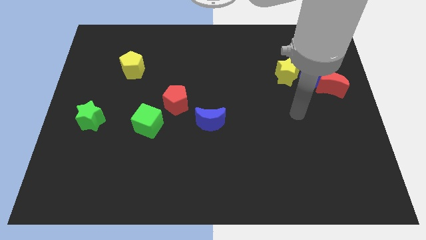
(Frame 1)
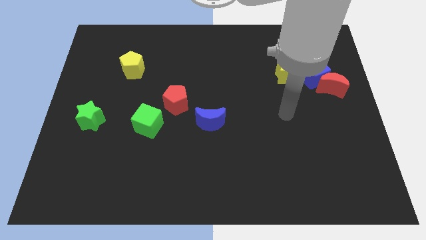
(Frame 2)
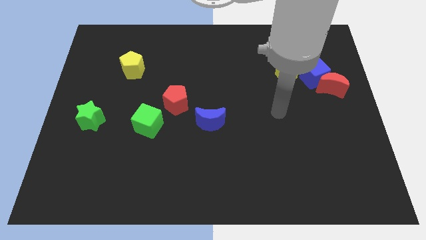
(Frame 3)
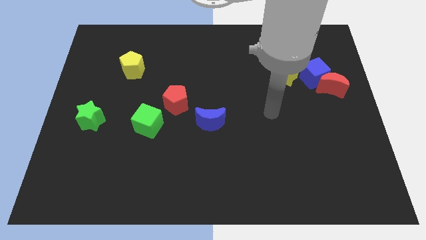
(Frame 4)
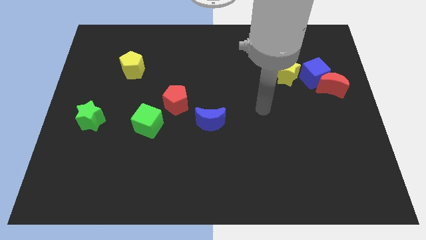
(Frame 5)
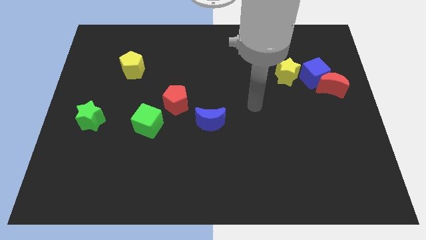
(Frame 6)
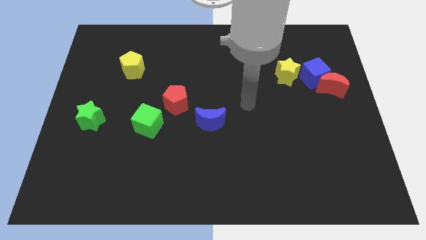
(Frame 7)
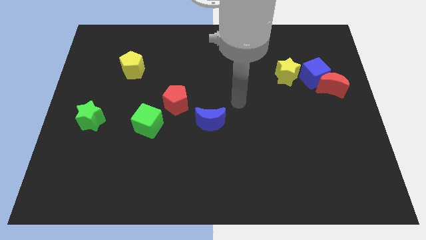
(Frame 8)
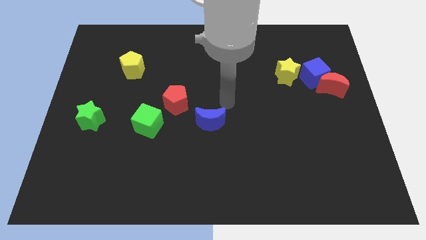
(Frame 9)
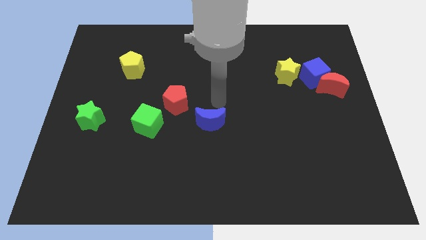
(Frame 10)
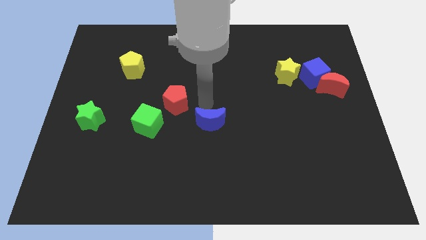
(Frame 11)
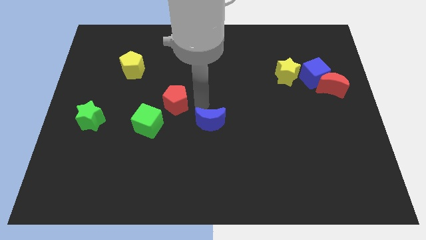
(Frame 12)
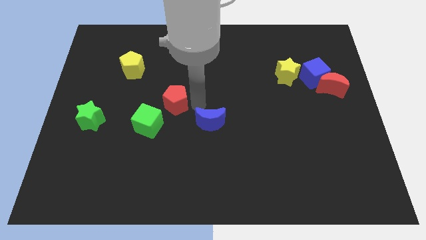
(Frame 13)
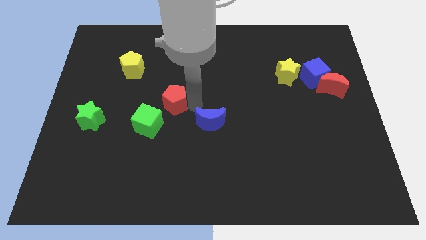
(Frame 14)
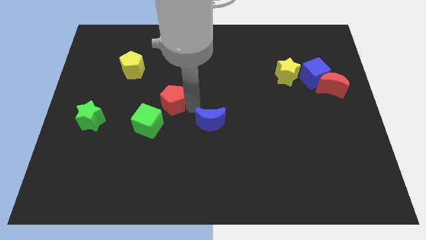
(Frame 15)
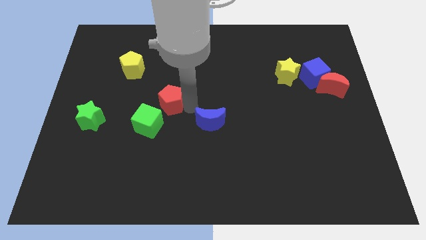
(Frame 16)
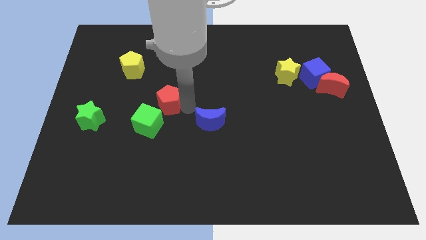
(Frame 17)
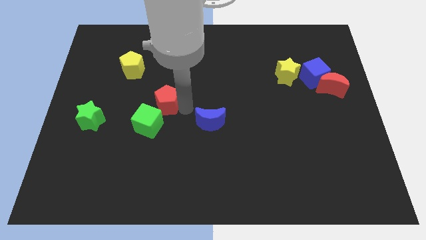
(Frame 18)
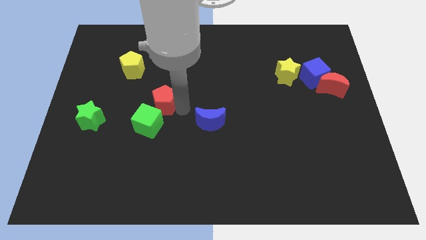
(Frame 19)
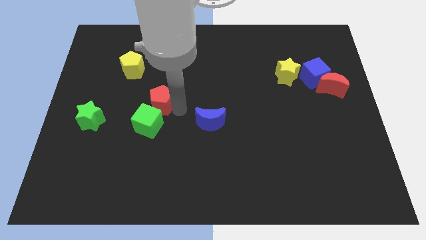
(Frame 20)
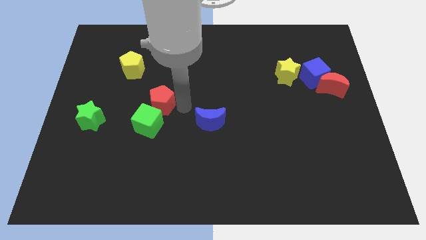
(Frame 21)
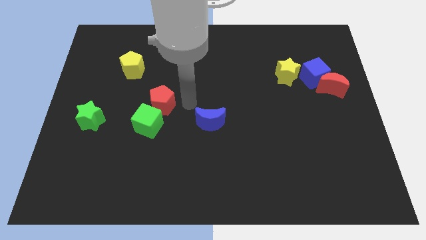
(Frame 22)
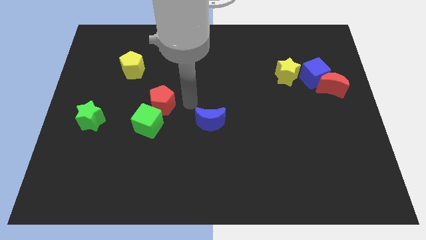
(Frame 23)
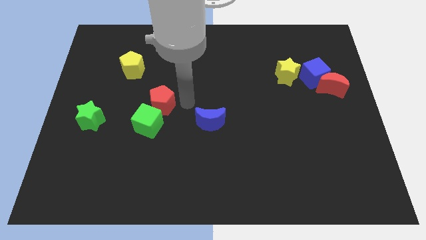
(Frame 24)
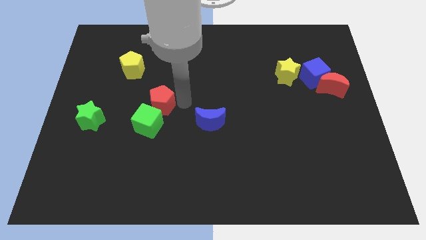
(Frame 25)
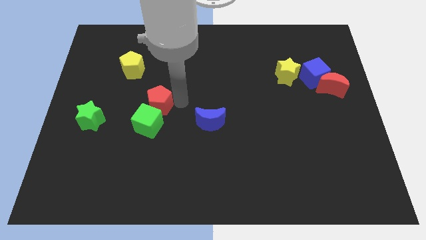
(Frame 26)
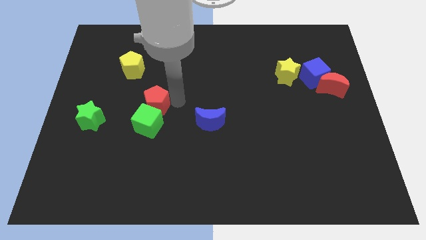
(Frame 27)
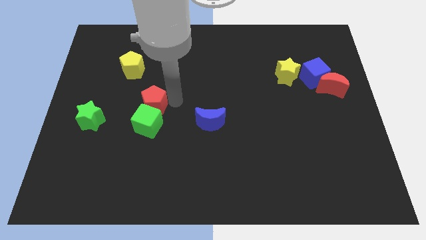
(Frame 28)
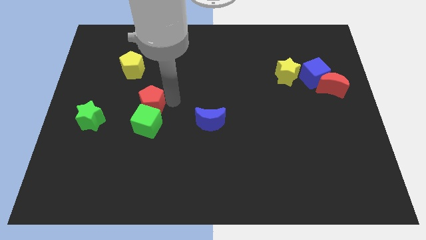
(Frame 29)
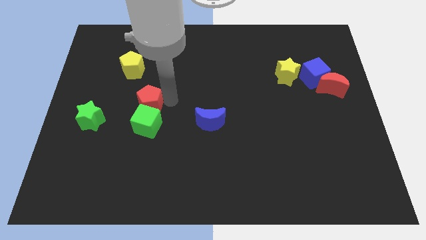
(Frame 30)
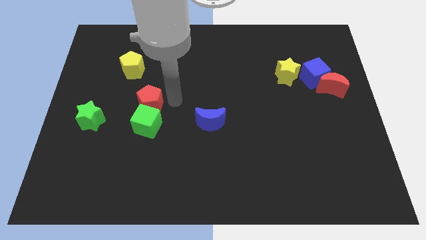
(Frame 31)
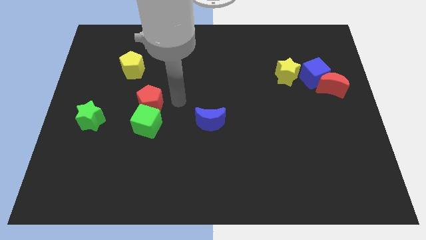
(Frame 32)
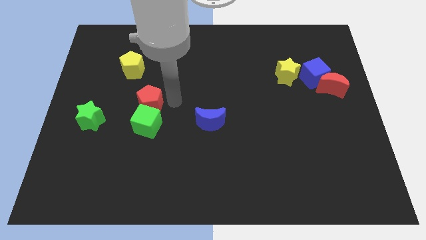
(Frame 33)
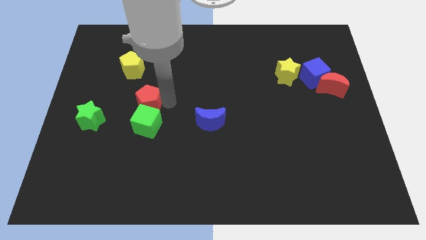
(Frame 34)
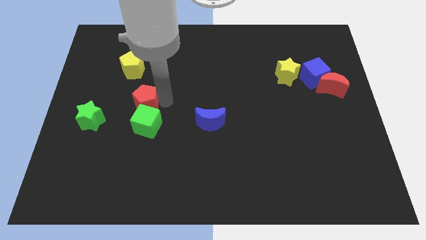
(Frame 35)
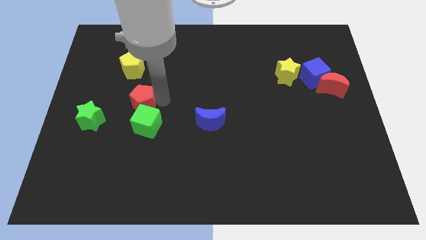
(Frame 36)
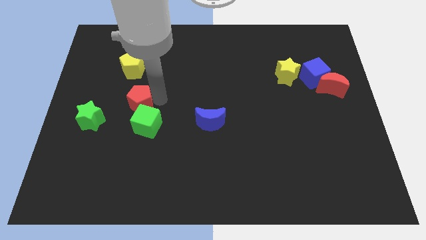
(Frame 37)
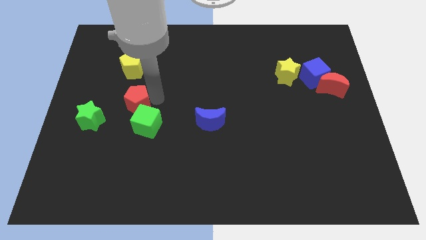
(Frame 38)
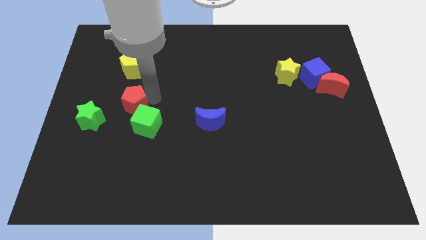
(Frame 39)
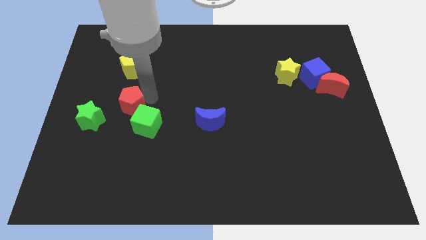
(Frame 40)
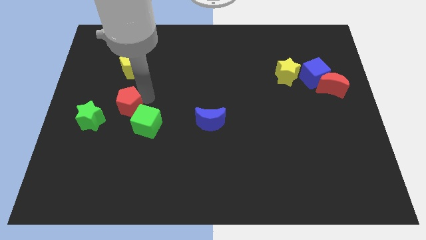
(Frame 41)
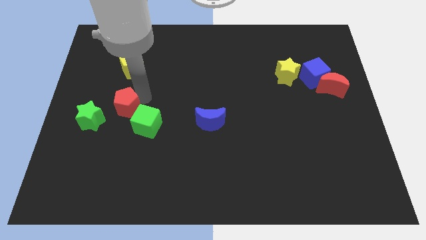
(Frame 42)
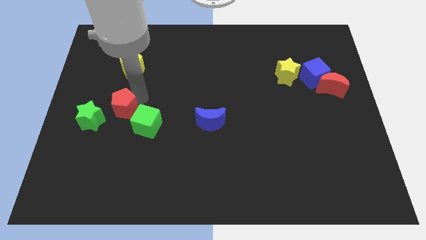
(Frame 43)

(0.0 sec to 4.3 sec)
push the red pentagon a little diagonally down and to the left

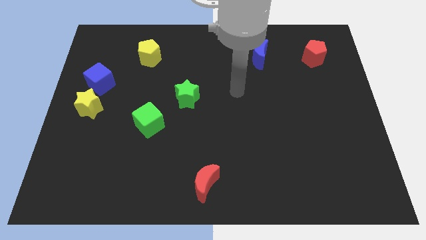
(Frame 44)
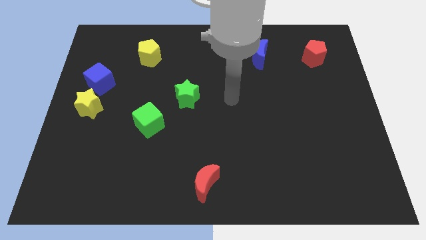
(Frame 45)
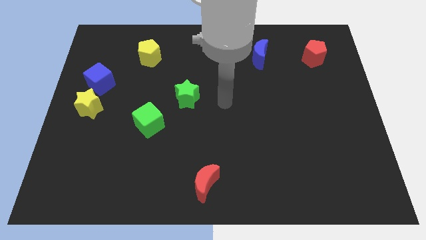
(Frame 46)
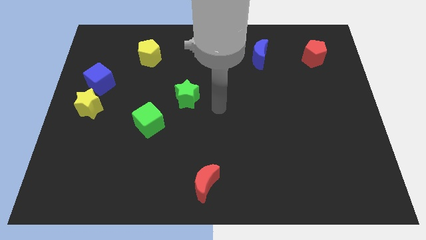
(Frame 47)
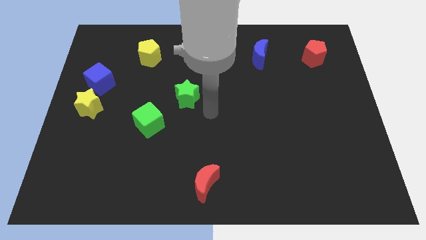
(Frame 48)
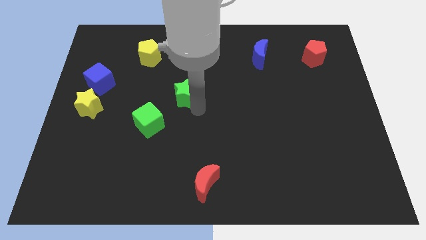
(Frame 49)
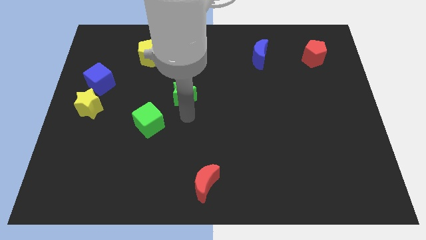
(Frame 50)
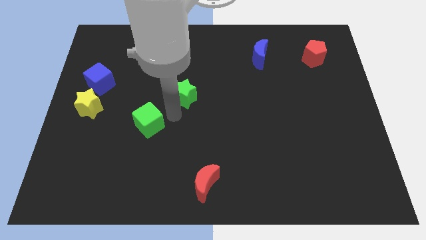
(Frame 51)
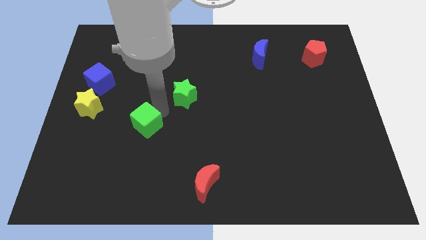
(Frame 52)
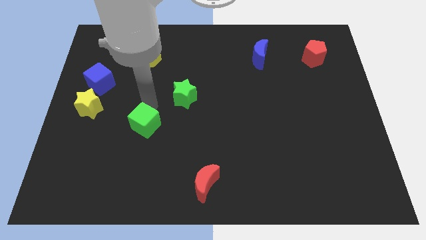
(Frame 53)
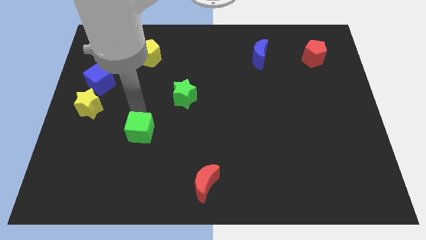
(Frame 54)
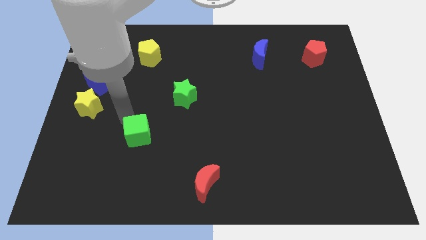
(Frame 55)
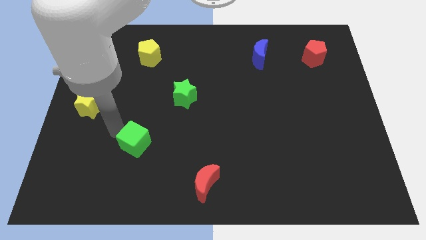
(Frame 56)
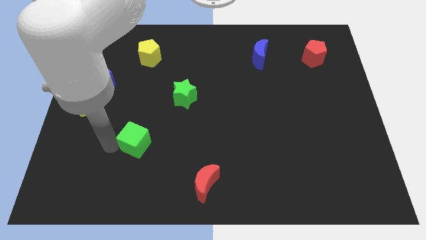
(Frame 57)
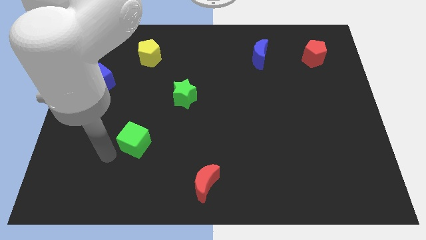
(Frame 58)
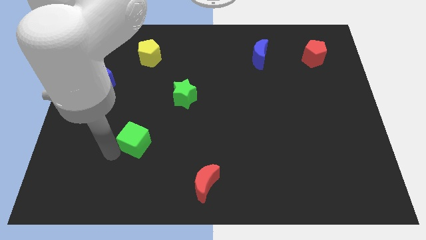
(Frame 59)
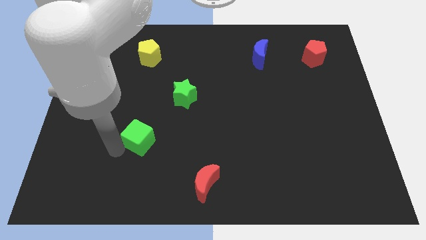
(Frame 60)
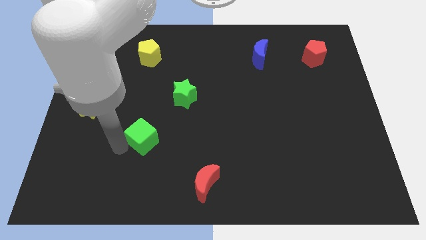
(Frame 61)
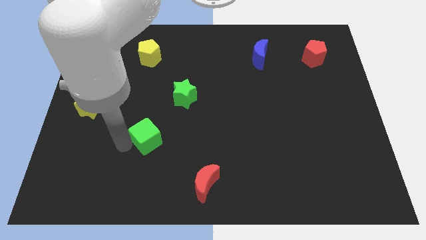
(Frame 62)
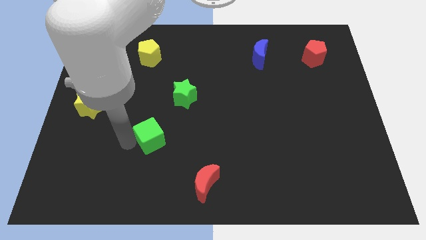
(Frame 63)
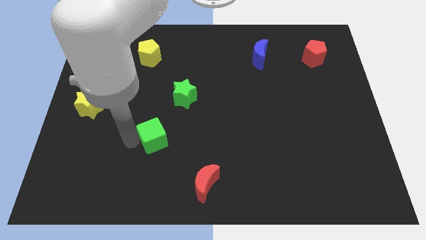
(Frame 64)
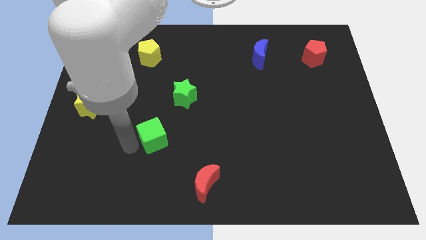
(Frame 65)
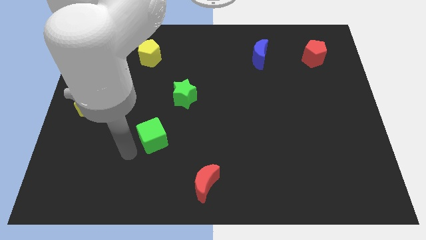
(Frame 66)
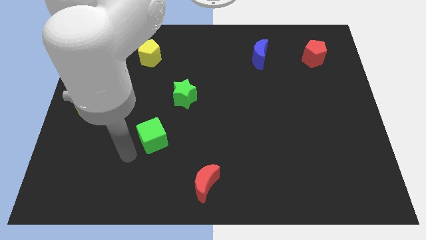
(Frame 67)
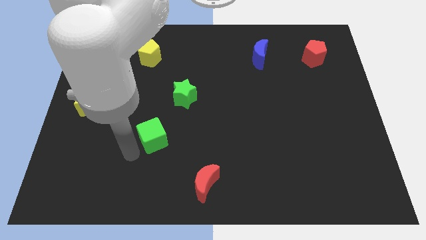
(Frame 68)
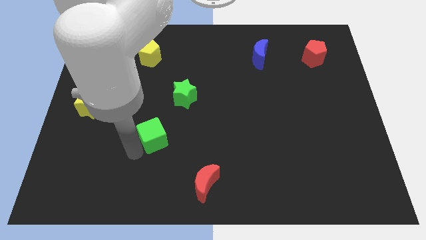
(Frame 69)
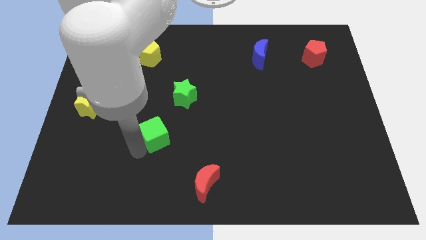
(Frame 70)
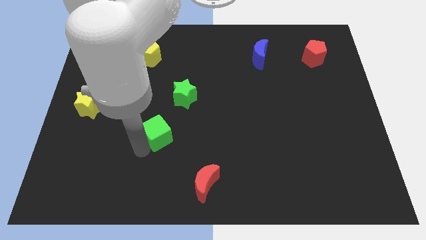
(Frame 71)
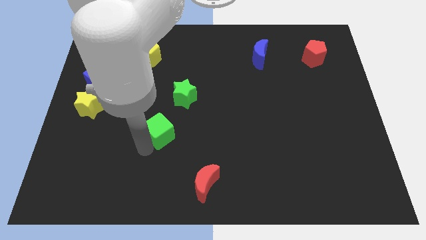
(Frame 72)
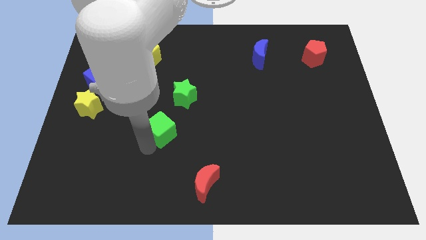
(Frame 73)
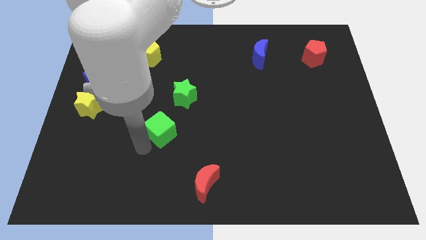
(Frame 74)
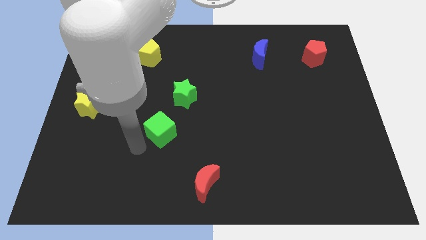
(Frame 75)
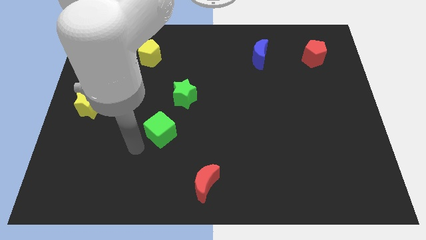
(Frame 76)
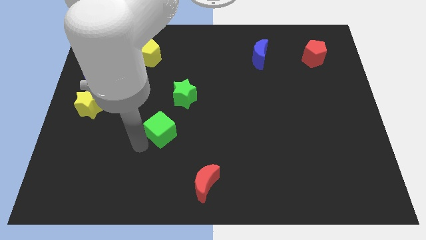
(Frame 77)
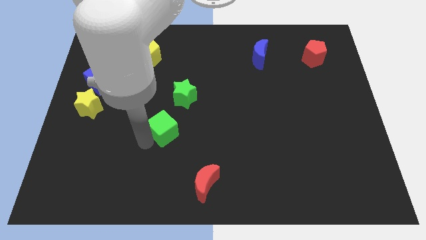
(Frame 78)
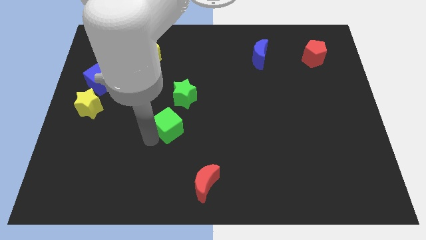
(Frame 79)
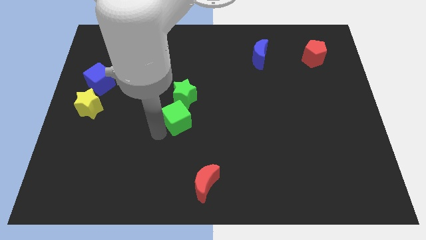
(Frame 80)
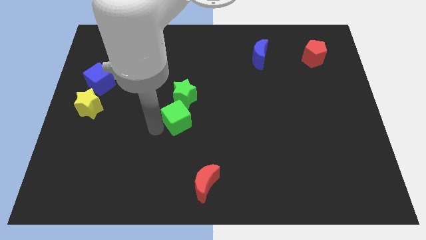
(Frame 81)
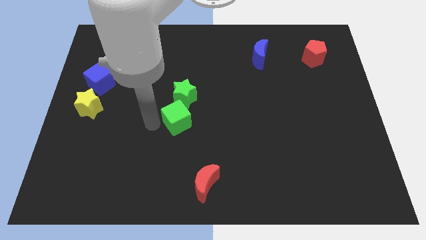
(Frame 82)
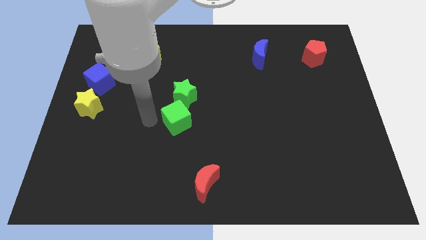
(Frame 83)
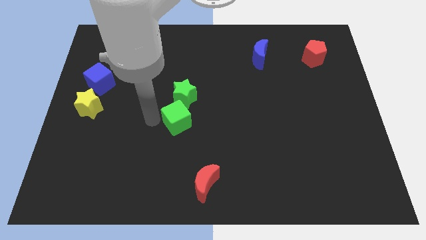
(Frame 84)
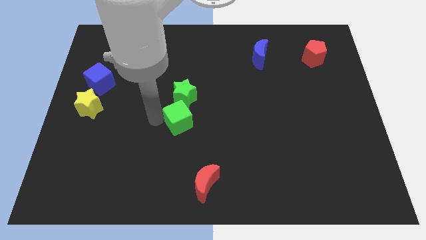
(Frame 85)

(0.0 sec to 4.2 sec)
slightly move the green cube right
